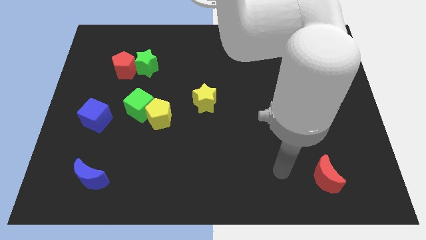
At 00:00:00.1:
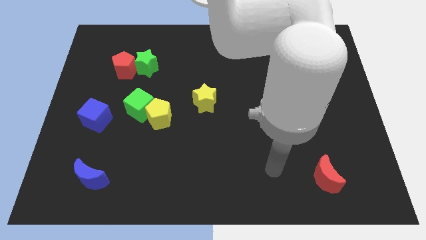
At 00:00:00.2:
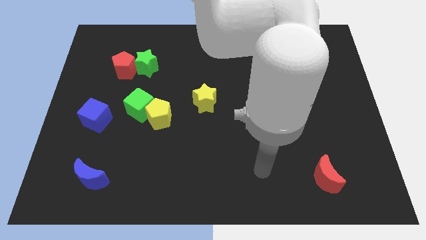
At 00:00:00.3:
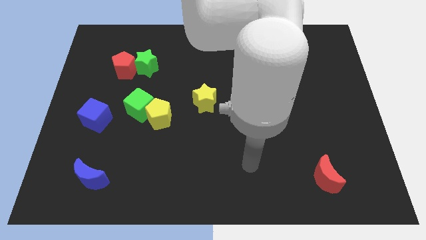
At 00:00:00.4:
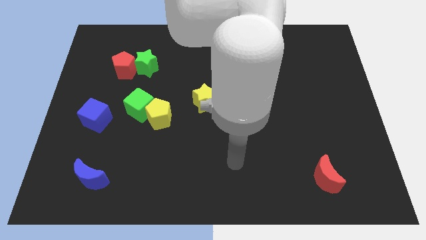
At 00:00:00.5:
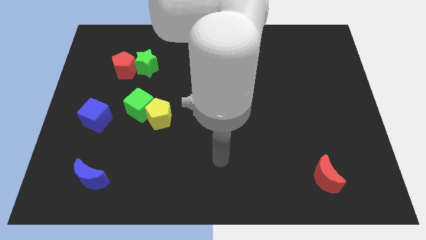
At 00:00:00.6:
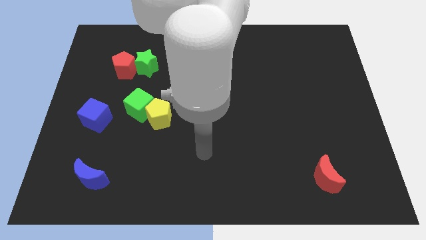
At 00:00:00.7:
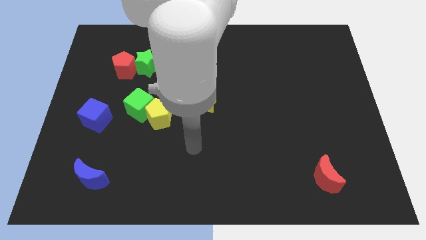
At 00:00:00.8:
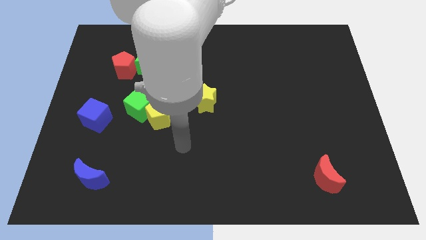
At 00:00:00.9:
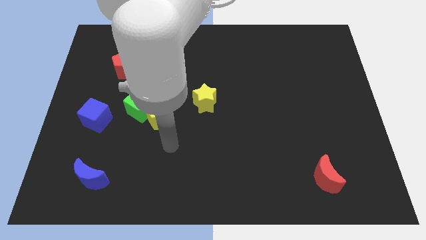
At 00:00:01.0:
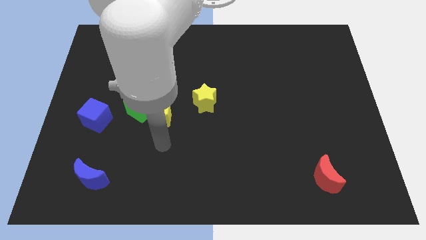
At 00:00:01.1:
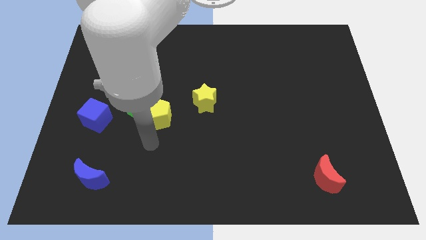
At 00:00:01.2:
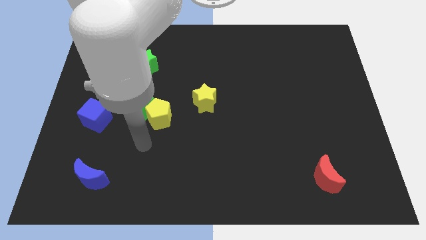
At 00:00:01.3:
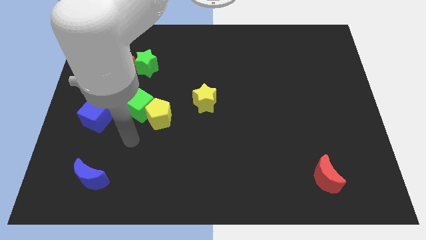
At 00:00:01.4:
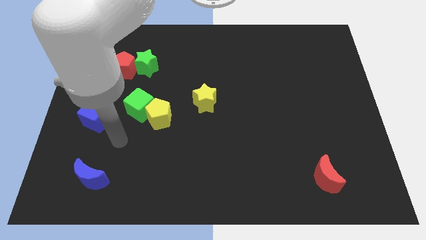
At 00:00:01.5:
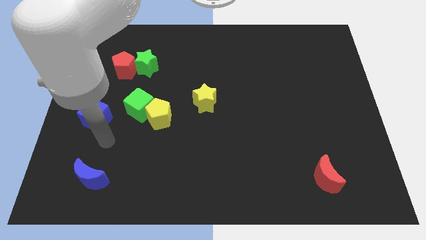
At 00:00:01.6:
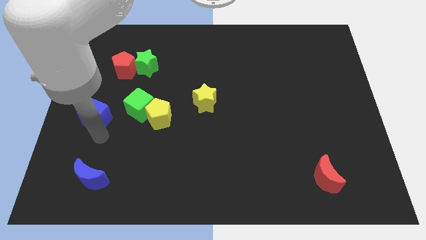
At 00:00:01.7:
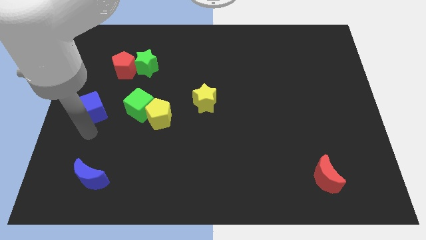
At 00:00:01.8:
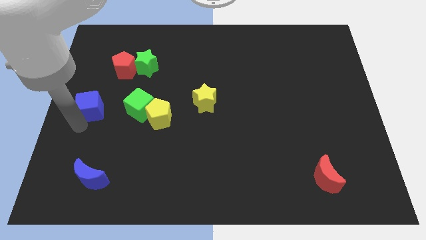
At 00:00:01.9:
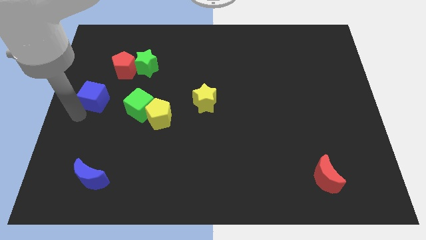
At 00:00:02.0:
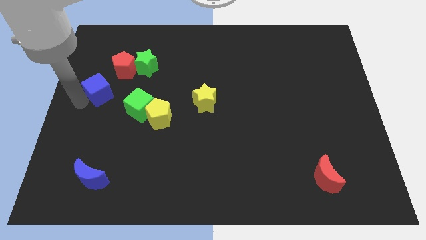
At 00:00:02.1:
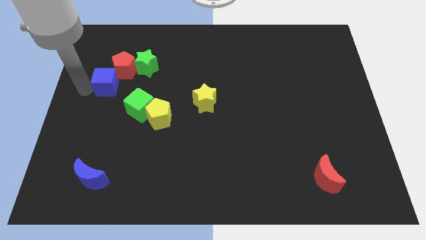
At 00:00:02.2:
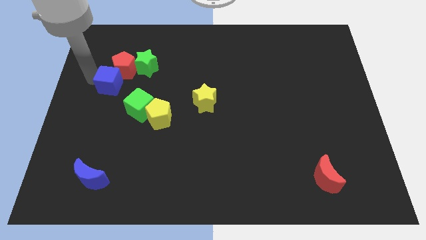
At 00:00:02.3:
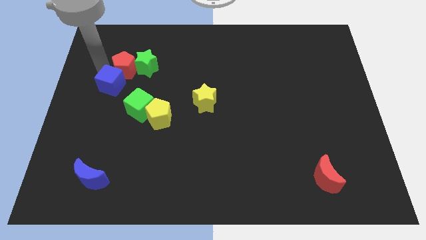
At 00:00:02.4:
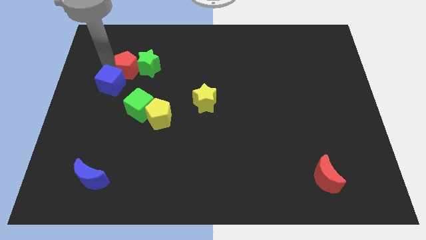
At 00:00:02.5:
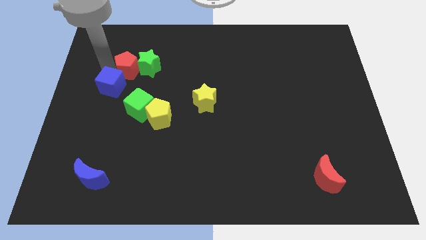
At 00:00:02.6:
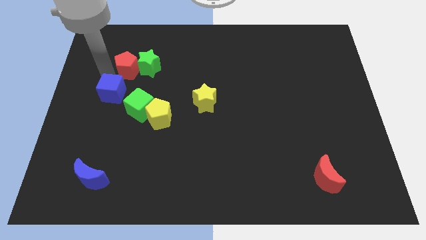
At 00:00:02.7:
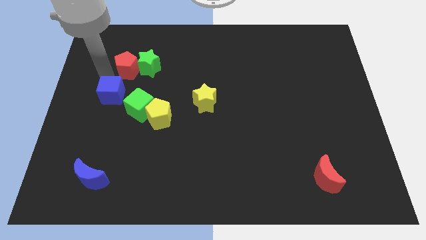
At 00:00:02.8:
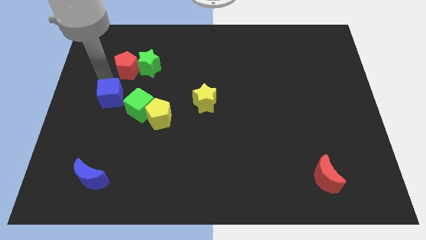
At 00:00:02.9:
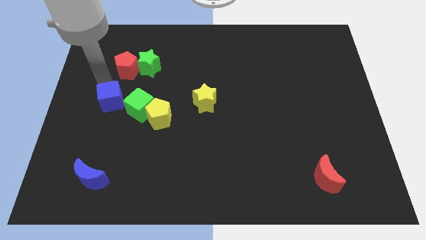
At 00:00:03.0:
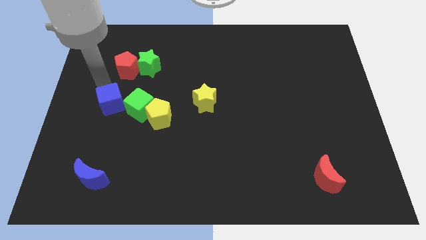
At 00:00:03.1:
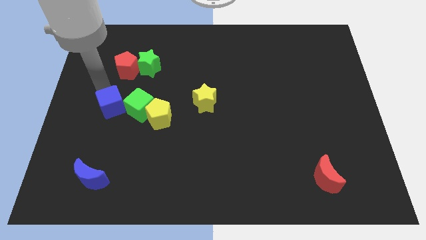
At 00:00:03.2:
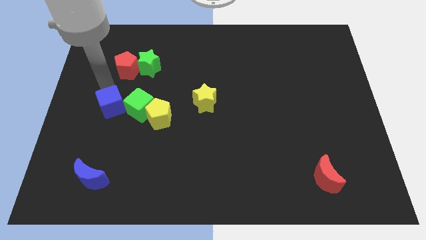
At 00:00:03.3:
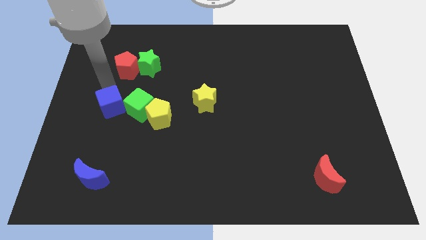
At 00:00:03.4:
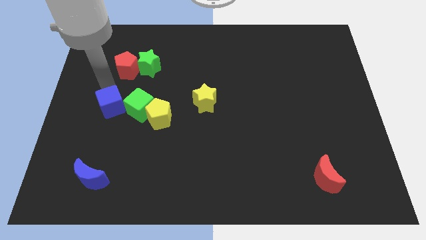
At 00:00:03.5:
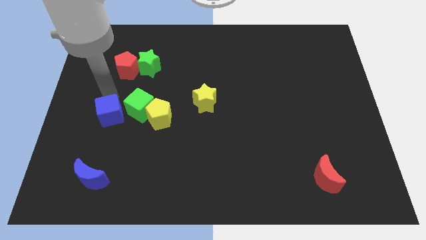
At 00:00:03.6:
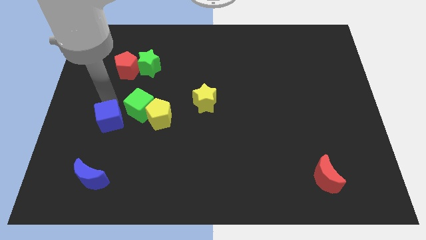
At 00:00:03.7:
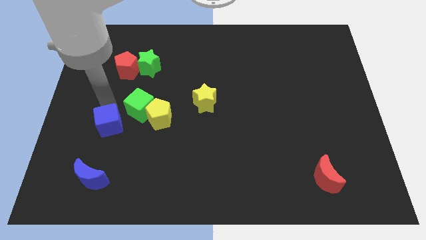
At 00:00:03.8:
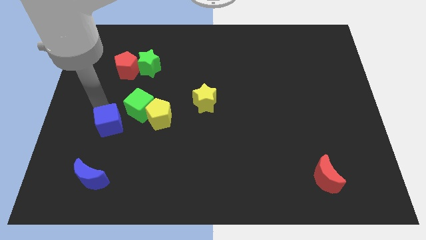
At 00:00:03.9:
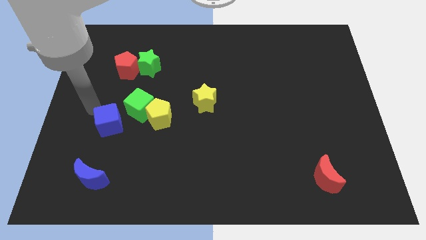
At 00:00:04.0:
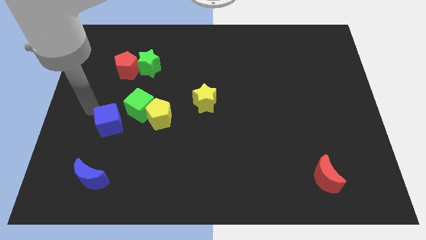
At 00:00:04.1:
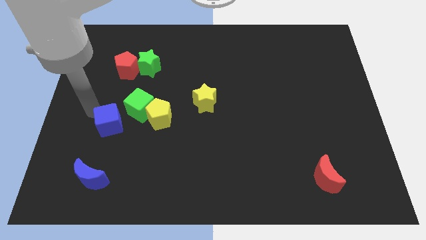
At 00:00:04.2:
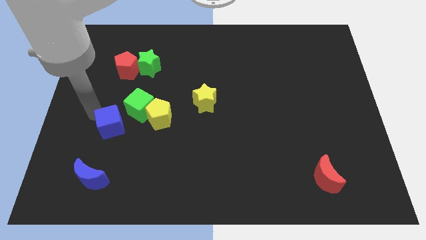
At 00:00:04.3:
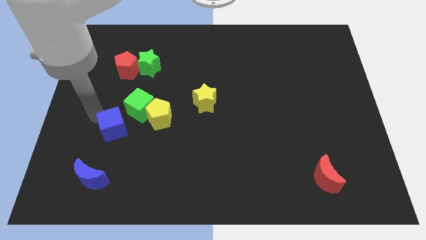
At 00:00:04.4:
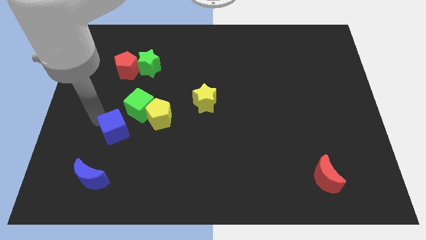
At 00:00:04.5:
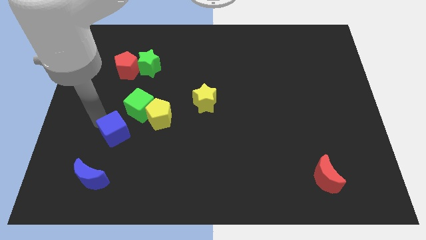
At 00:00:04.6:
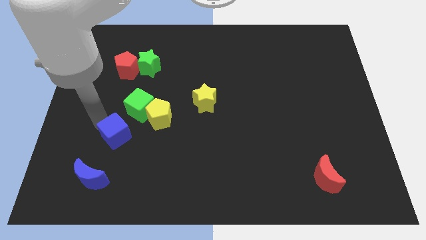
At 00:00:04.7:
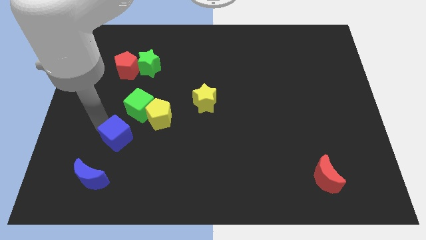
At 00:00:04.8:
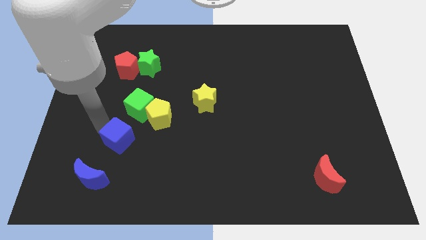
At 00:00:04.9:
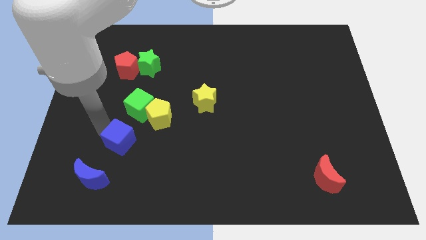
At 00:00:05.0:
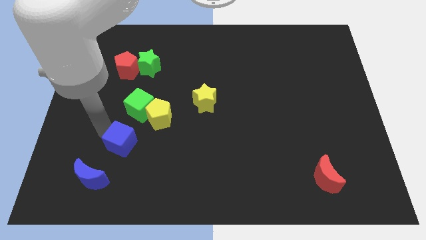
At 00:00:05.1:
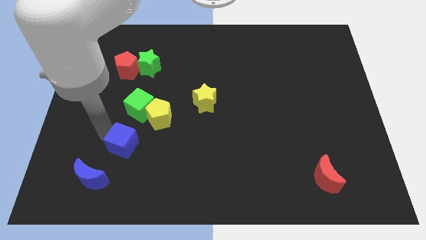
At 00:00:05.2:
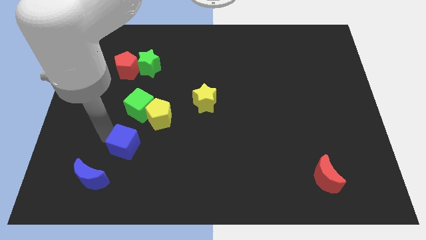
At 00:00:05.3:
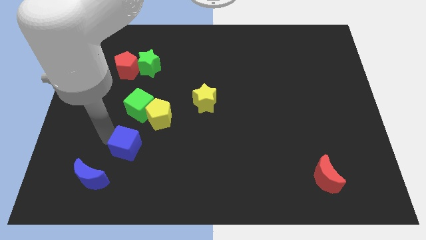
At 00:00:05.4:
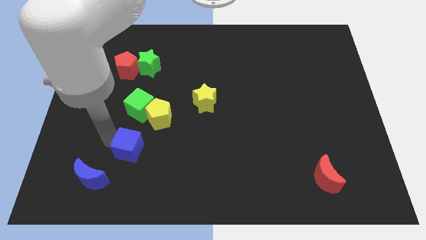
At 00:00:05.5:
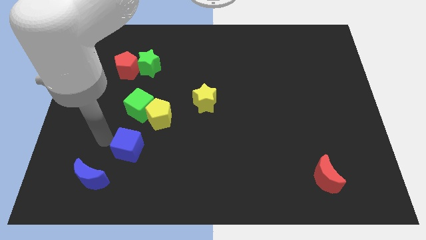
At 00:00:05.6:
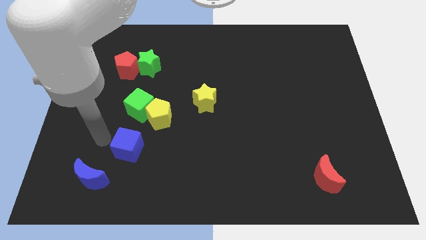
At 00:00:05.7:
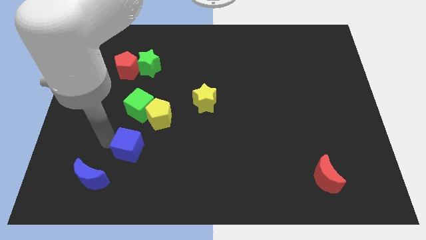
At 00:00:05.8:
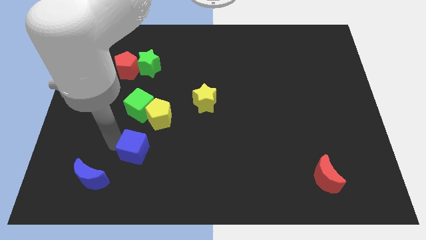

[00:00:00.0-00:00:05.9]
move the blue cube below the yellow pentagon

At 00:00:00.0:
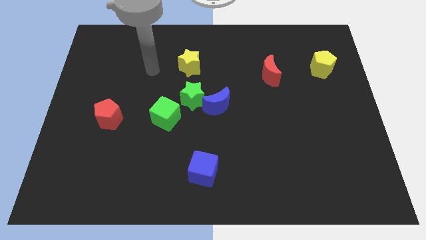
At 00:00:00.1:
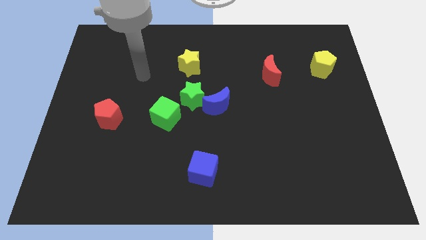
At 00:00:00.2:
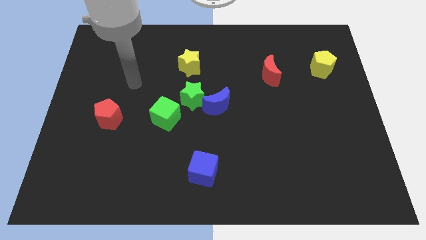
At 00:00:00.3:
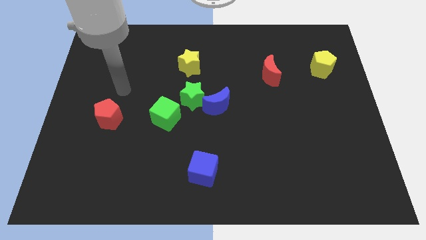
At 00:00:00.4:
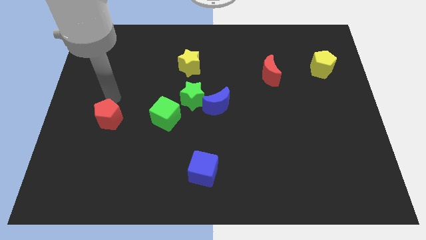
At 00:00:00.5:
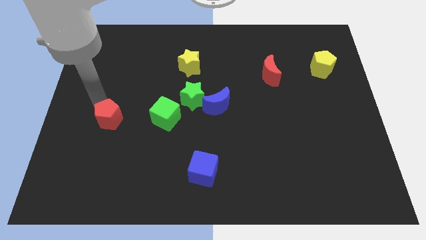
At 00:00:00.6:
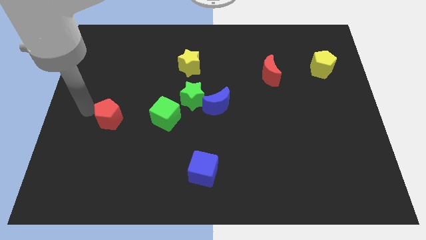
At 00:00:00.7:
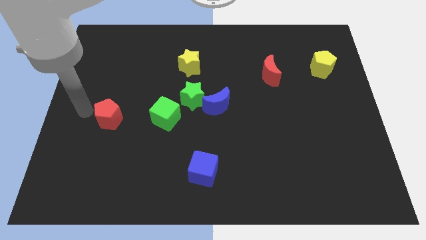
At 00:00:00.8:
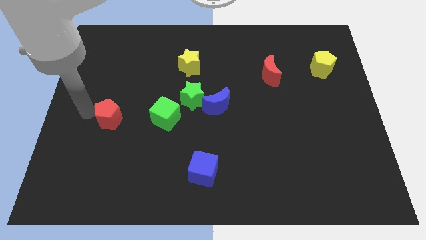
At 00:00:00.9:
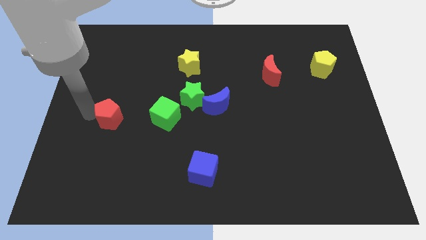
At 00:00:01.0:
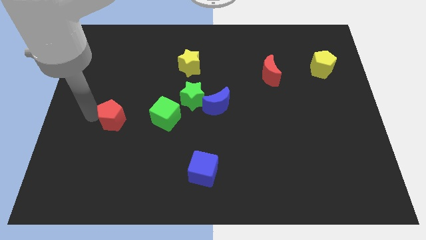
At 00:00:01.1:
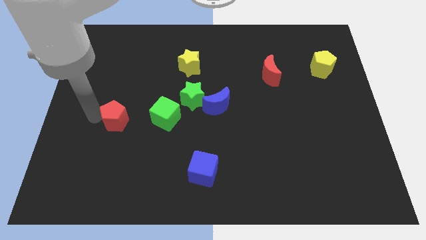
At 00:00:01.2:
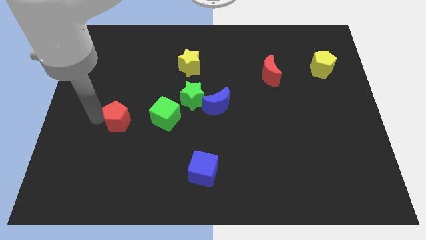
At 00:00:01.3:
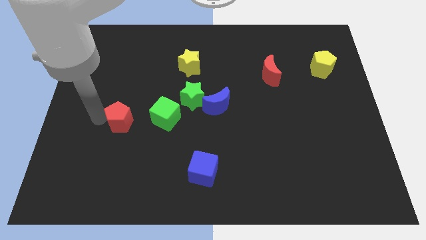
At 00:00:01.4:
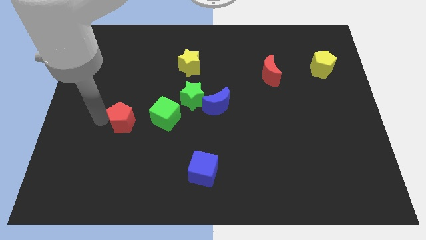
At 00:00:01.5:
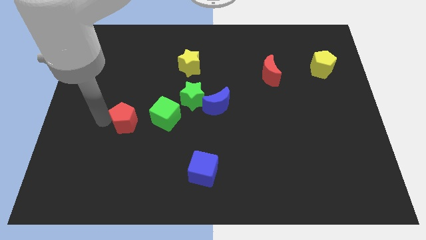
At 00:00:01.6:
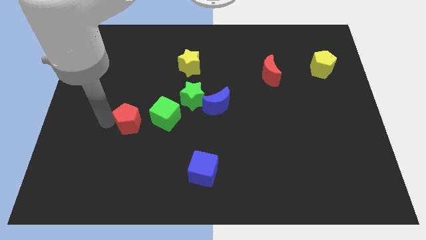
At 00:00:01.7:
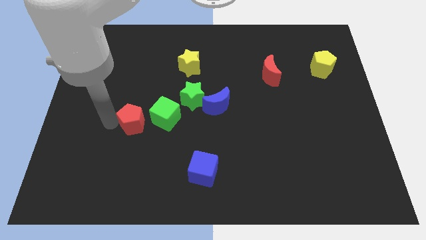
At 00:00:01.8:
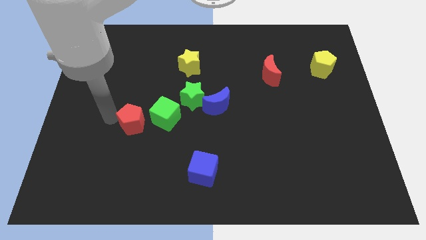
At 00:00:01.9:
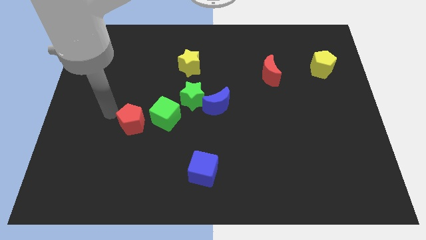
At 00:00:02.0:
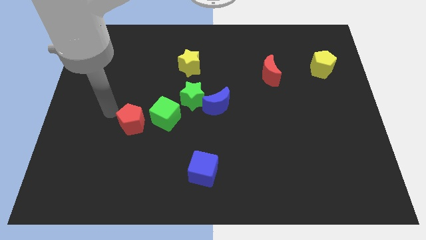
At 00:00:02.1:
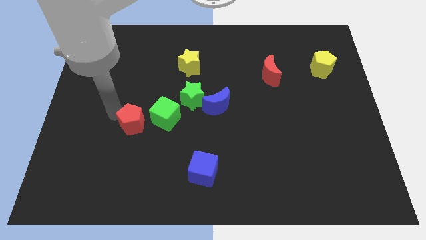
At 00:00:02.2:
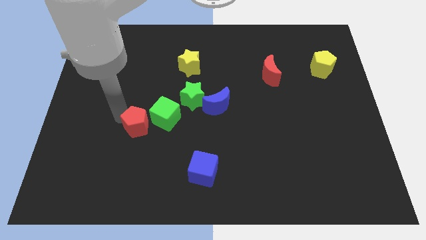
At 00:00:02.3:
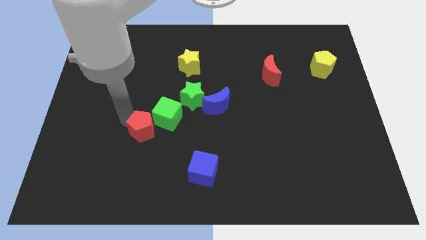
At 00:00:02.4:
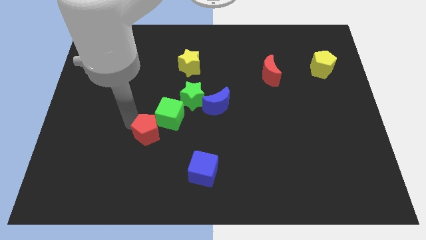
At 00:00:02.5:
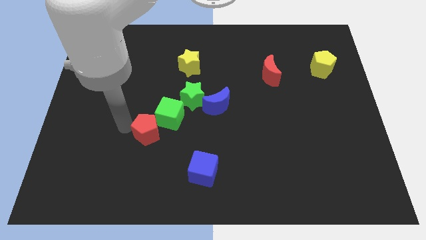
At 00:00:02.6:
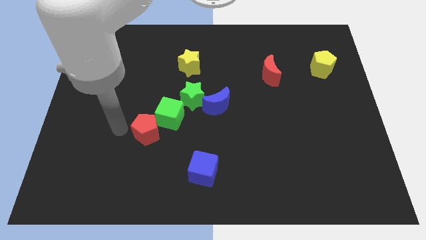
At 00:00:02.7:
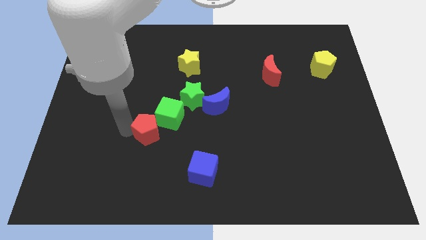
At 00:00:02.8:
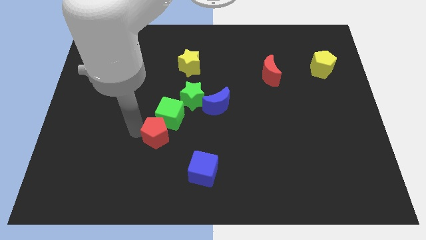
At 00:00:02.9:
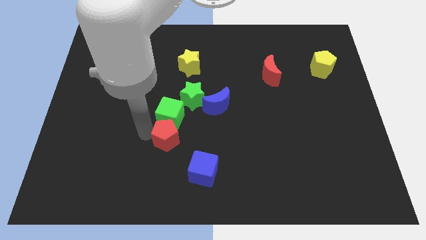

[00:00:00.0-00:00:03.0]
put the red pentagon to the bottom right of the green cube
